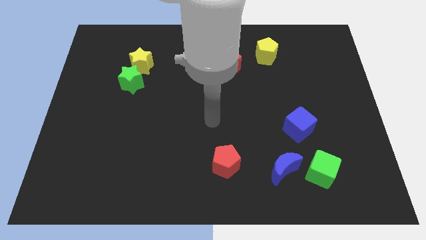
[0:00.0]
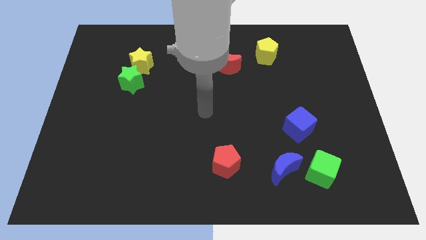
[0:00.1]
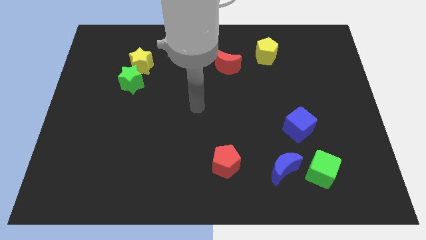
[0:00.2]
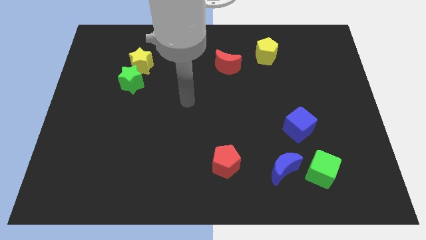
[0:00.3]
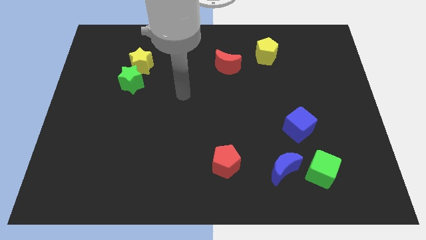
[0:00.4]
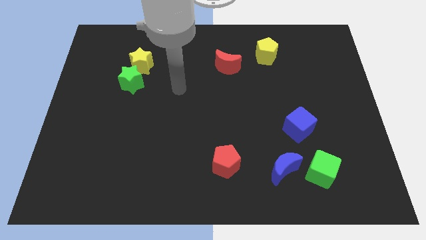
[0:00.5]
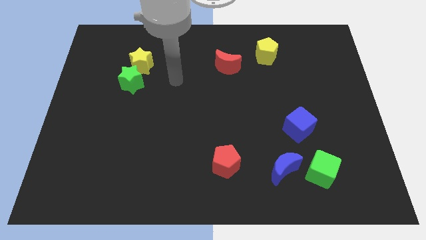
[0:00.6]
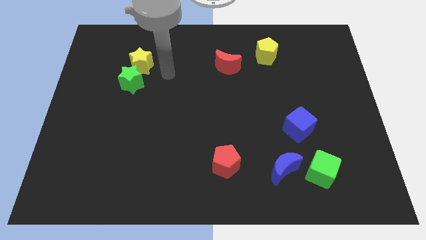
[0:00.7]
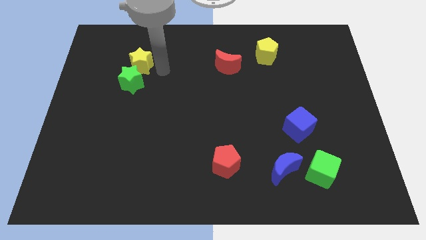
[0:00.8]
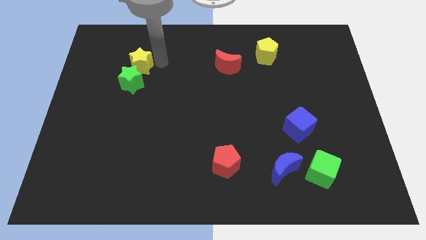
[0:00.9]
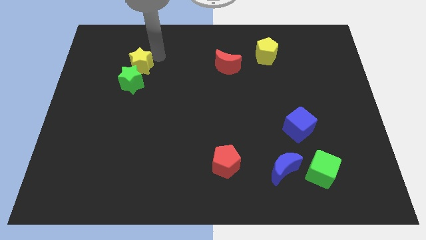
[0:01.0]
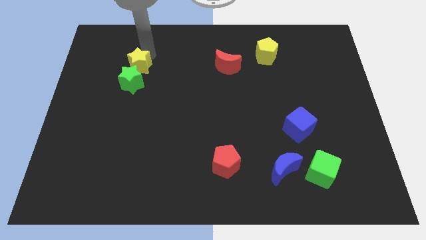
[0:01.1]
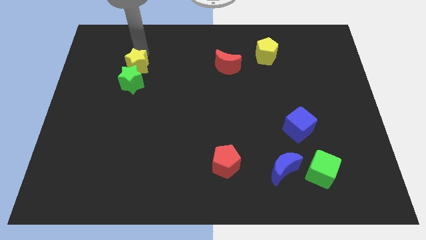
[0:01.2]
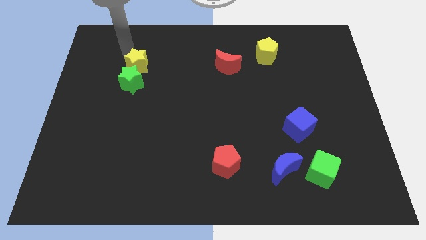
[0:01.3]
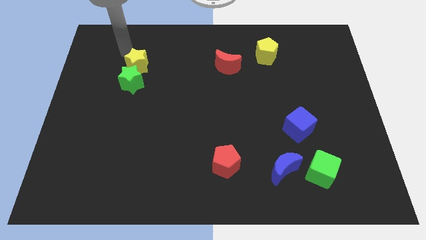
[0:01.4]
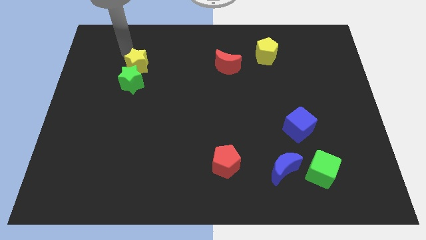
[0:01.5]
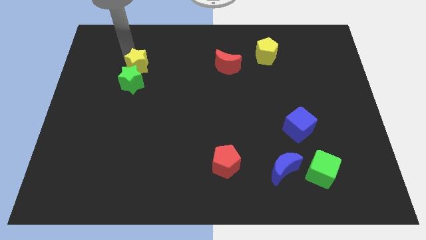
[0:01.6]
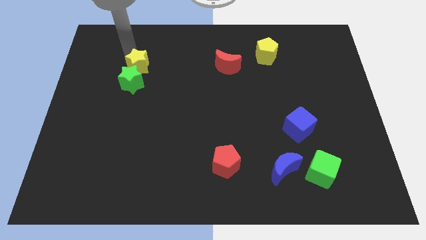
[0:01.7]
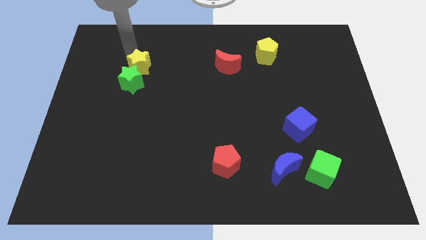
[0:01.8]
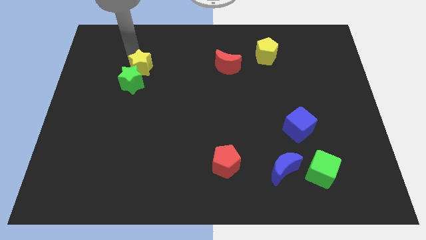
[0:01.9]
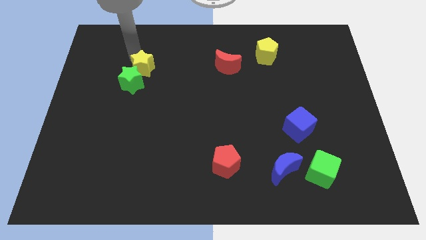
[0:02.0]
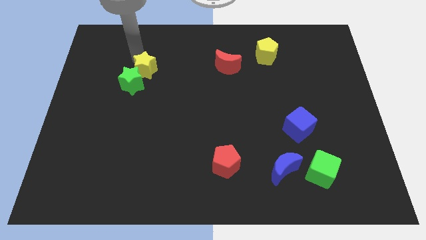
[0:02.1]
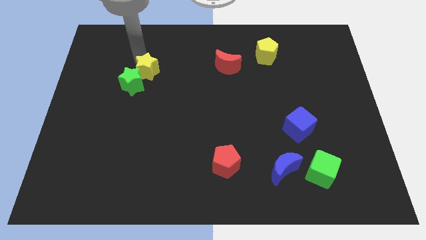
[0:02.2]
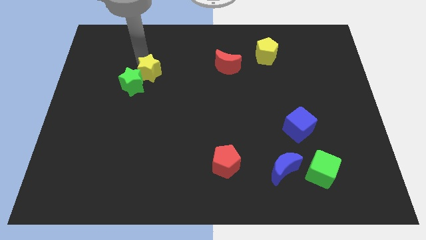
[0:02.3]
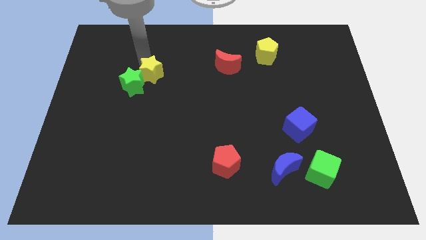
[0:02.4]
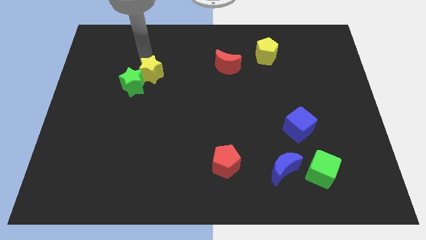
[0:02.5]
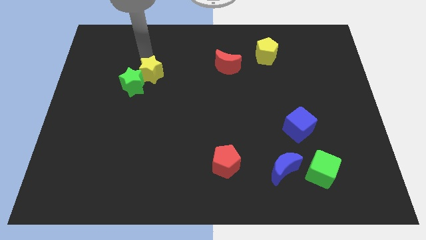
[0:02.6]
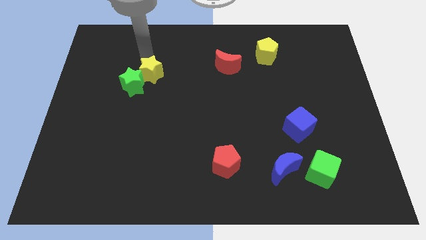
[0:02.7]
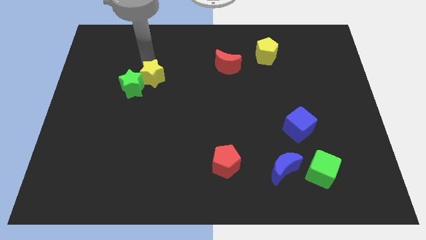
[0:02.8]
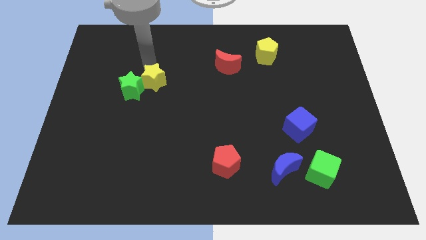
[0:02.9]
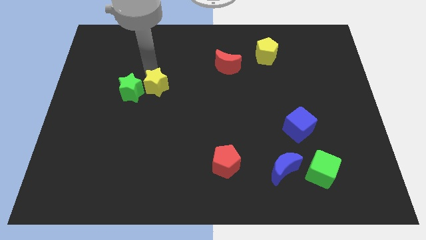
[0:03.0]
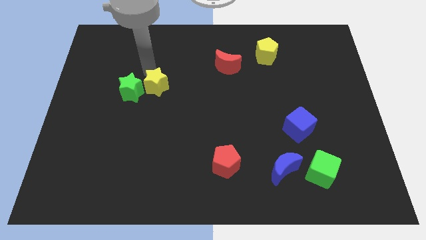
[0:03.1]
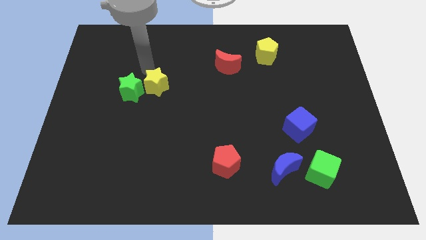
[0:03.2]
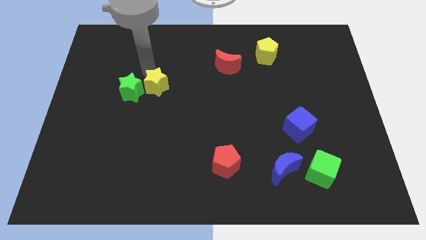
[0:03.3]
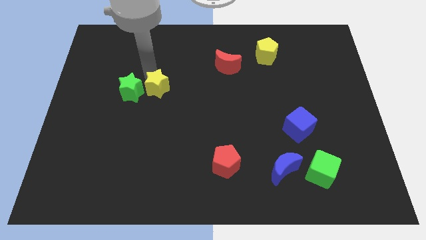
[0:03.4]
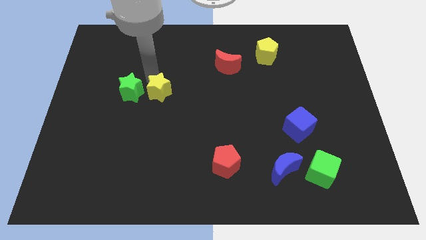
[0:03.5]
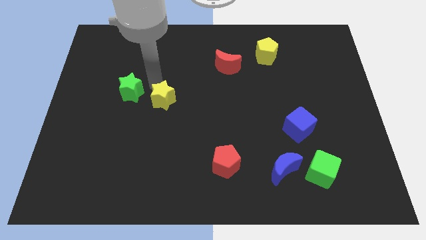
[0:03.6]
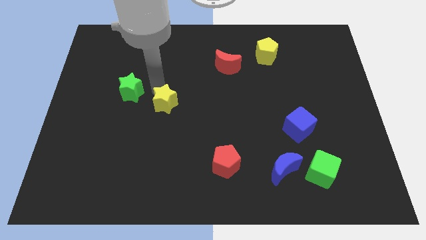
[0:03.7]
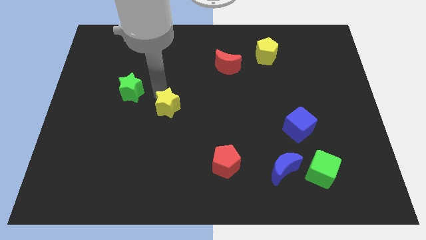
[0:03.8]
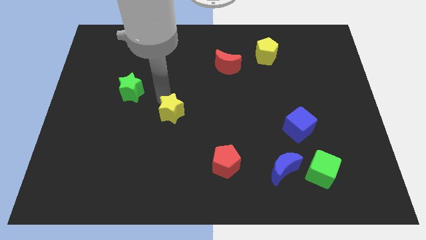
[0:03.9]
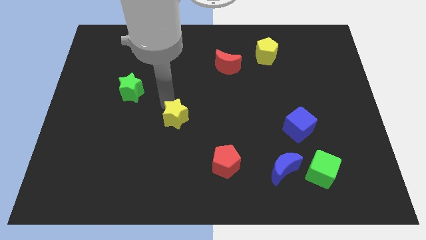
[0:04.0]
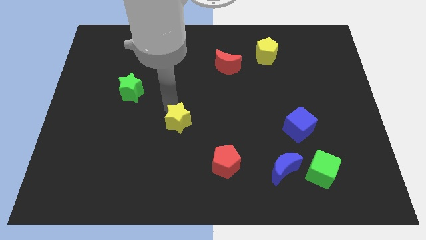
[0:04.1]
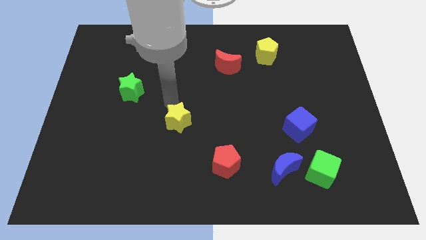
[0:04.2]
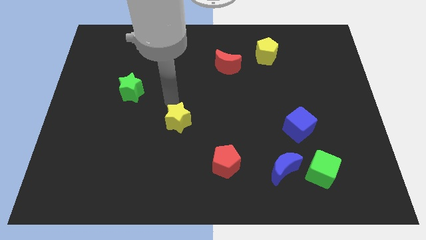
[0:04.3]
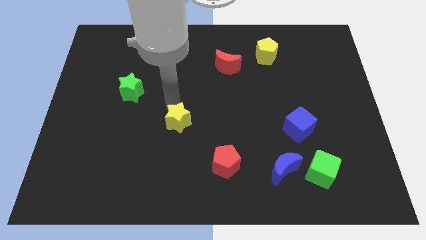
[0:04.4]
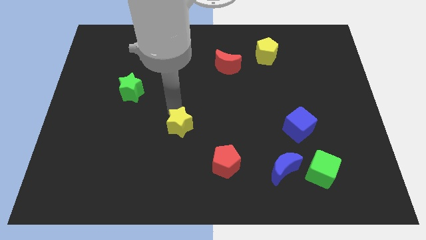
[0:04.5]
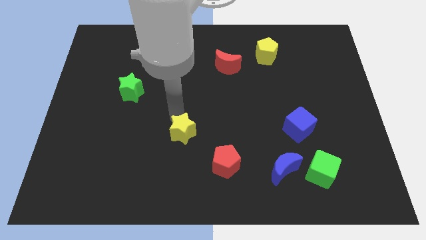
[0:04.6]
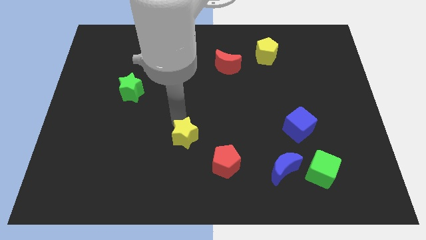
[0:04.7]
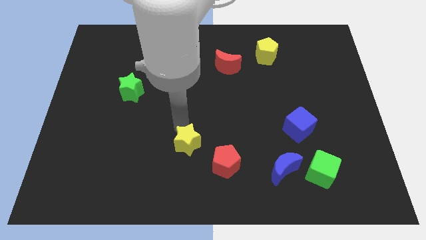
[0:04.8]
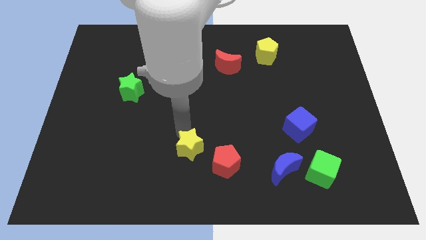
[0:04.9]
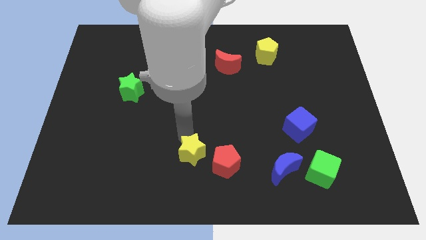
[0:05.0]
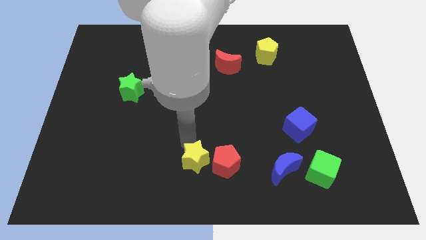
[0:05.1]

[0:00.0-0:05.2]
put the yellow star to the bottom

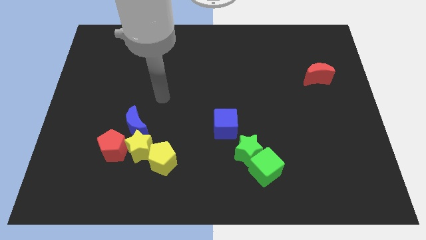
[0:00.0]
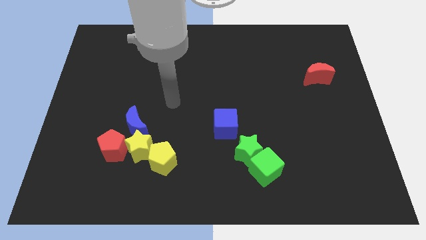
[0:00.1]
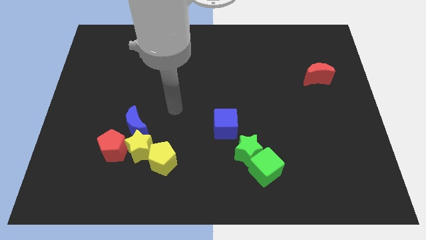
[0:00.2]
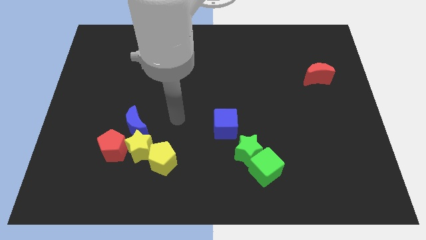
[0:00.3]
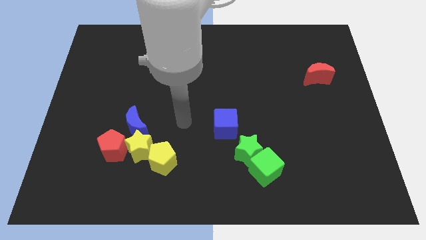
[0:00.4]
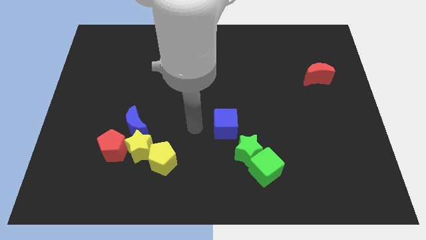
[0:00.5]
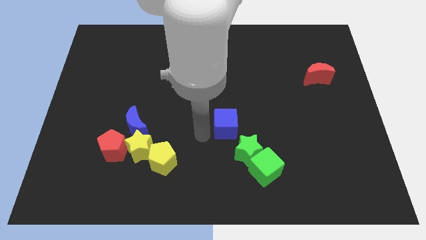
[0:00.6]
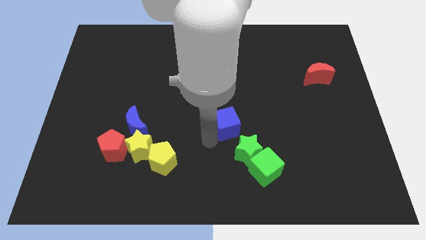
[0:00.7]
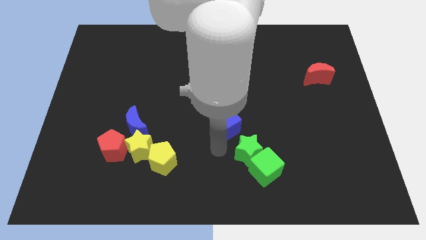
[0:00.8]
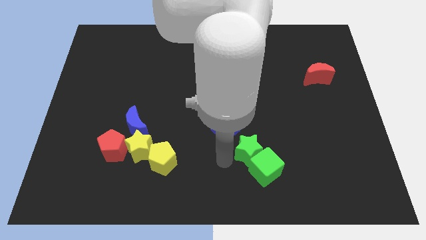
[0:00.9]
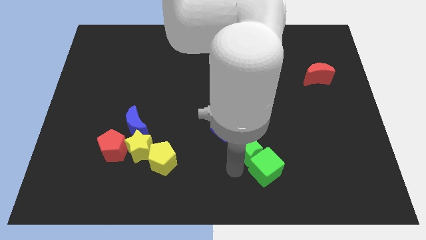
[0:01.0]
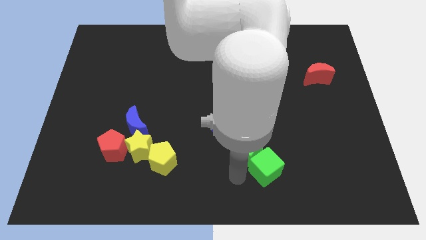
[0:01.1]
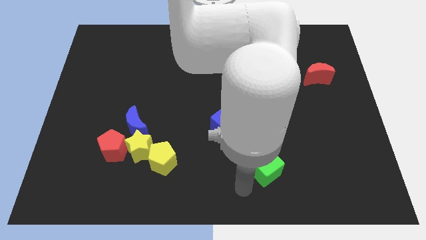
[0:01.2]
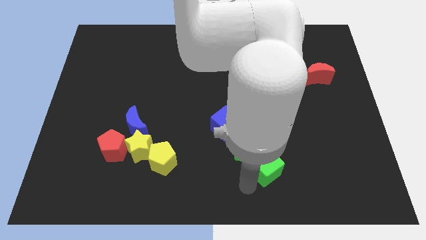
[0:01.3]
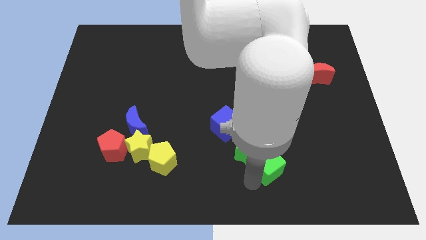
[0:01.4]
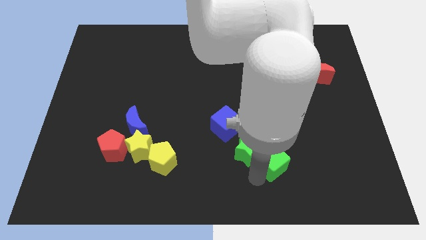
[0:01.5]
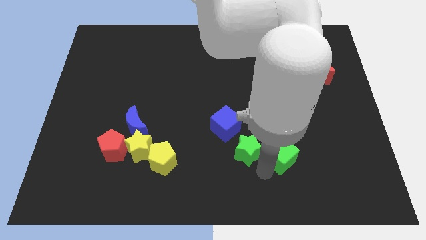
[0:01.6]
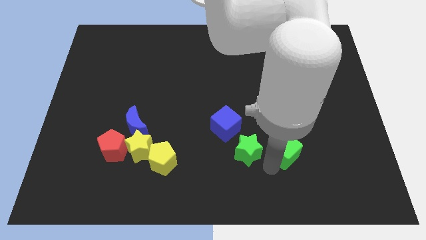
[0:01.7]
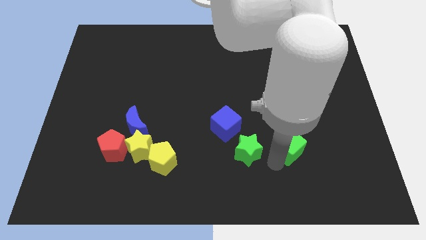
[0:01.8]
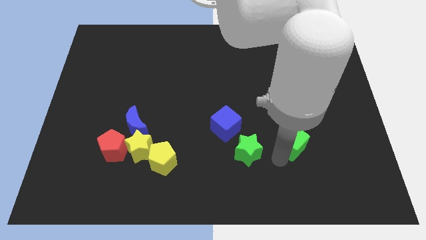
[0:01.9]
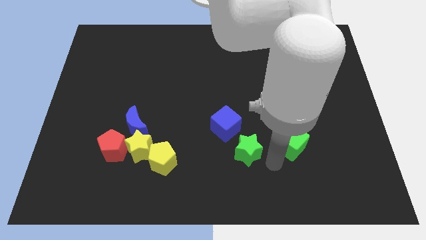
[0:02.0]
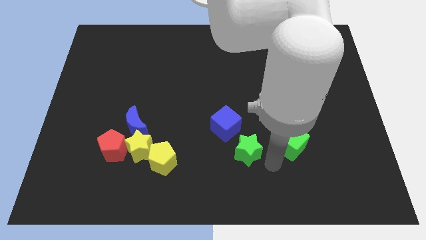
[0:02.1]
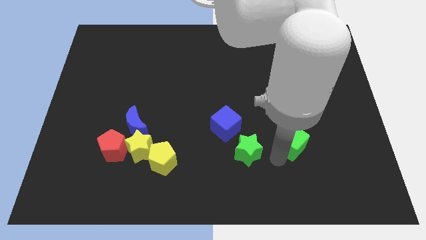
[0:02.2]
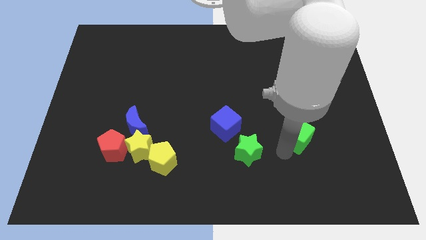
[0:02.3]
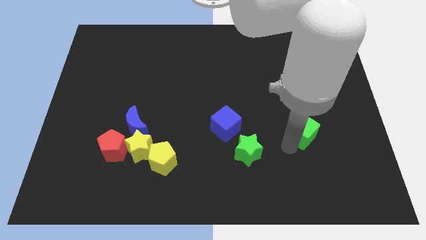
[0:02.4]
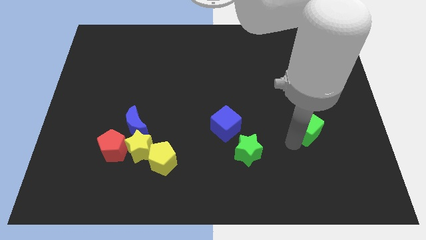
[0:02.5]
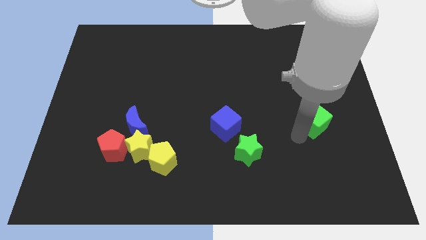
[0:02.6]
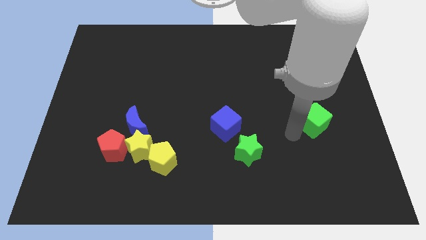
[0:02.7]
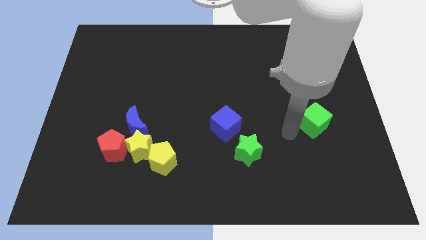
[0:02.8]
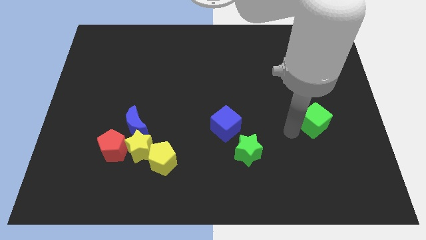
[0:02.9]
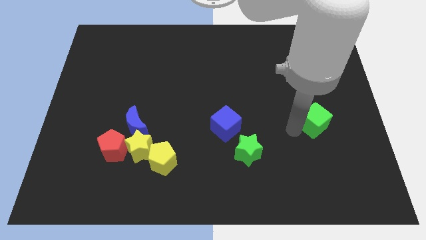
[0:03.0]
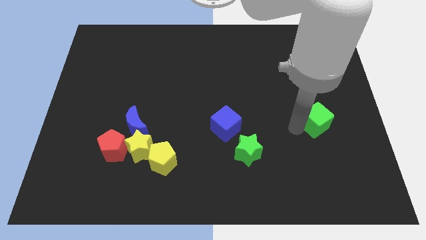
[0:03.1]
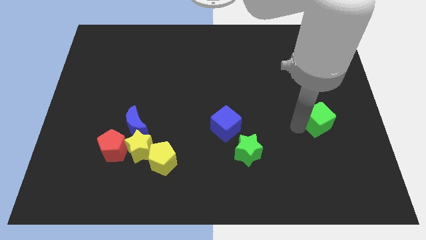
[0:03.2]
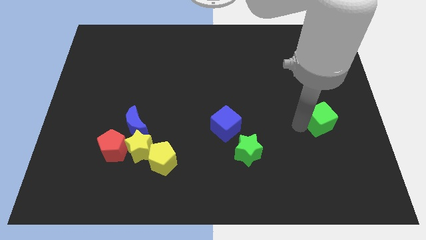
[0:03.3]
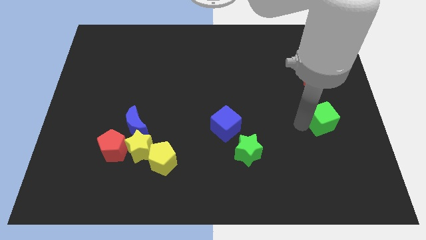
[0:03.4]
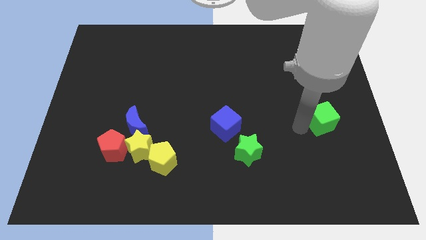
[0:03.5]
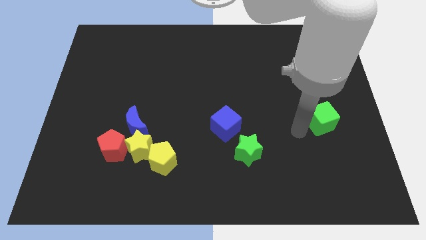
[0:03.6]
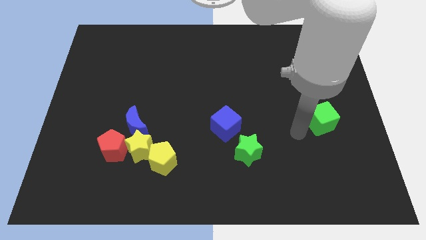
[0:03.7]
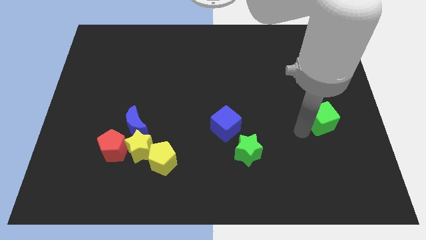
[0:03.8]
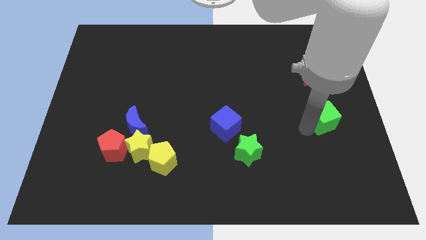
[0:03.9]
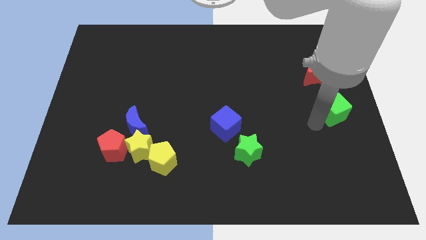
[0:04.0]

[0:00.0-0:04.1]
slide the green cube to the right side
